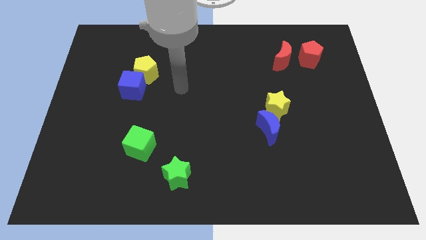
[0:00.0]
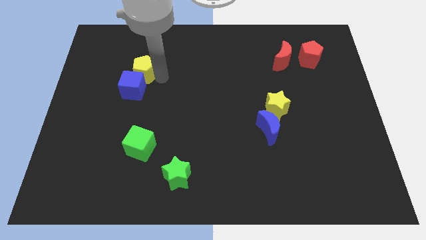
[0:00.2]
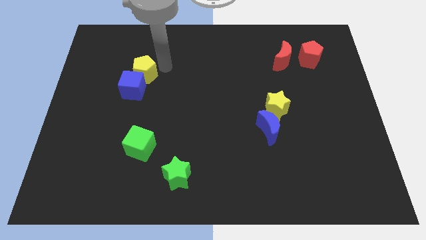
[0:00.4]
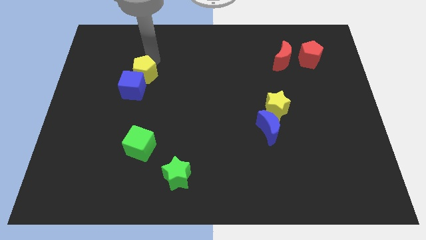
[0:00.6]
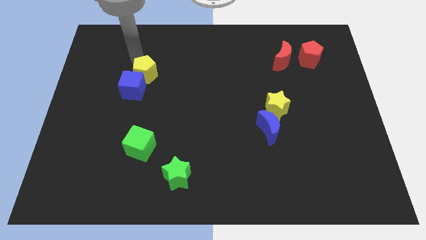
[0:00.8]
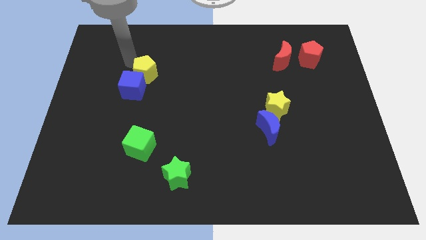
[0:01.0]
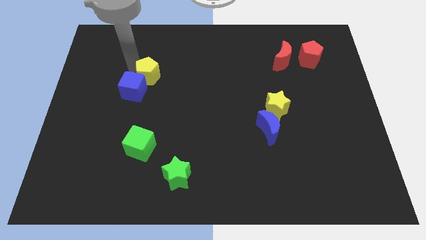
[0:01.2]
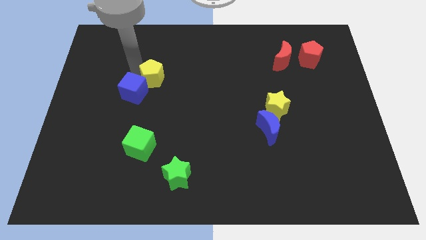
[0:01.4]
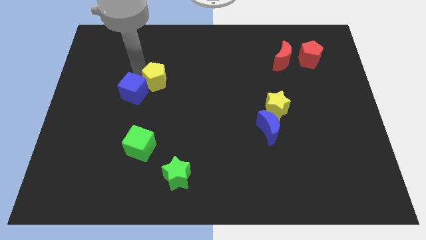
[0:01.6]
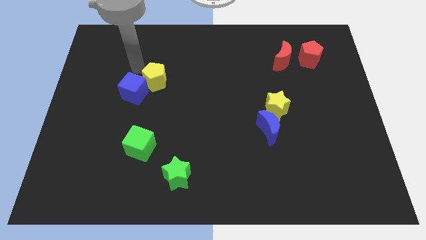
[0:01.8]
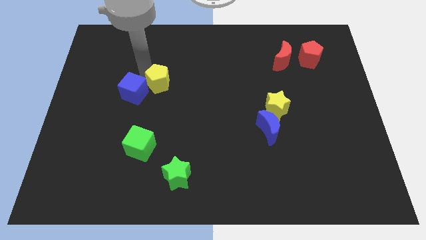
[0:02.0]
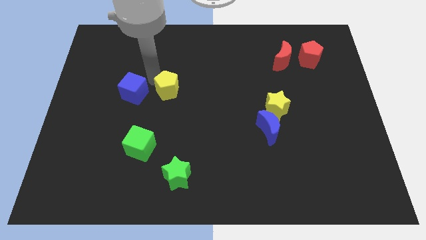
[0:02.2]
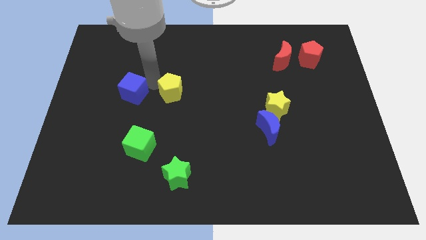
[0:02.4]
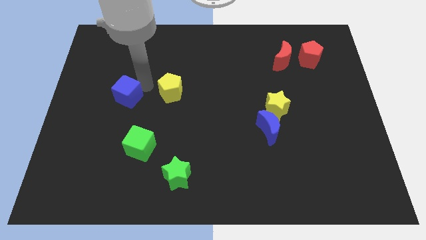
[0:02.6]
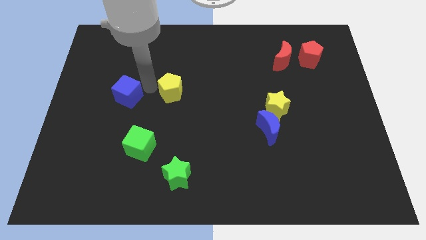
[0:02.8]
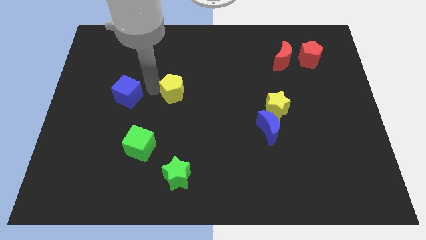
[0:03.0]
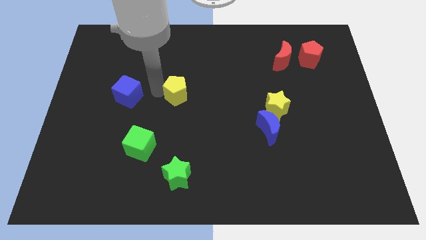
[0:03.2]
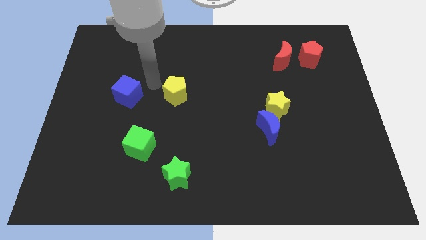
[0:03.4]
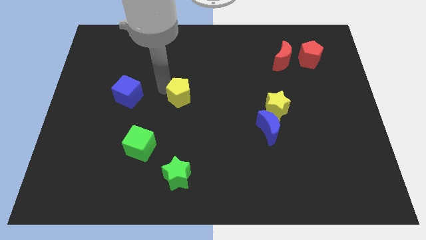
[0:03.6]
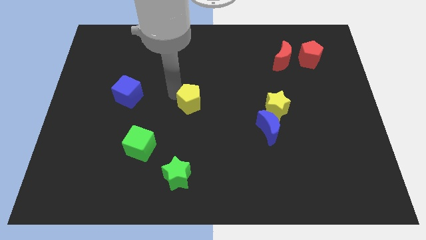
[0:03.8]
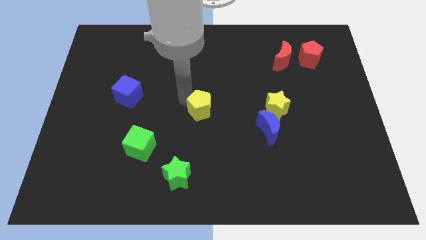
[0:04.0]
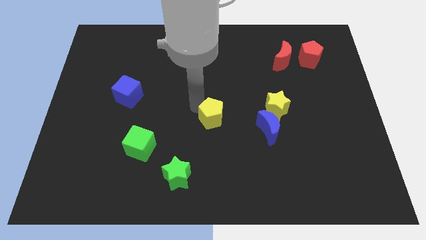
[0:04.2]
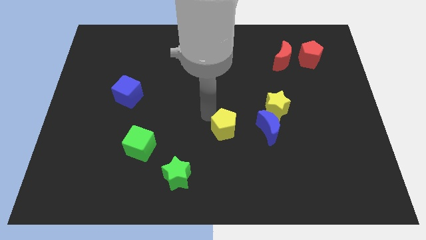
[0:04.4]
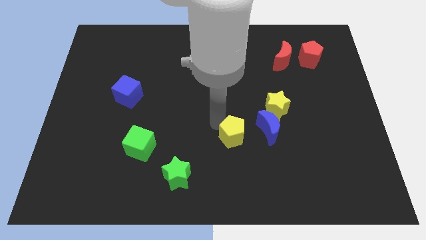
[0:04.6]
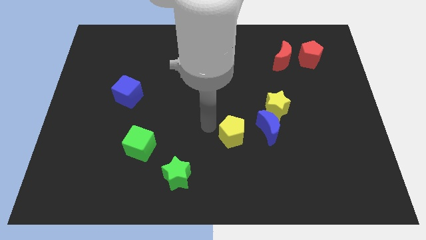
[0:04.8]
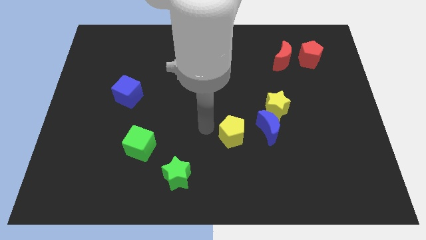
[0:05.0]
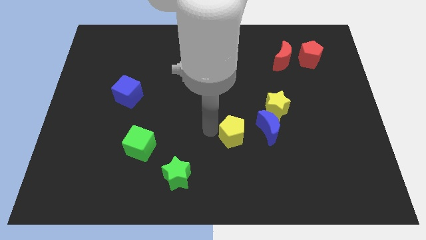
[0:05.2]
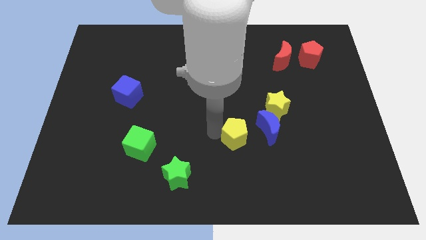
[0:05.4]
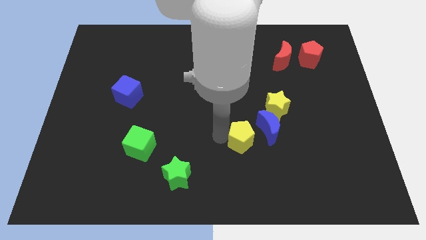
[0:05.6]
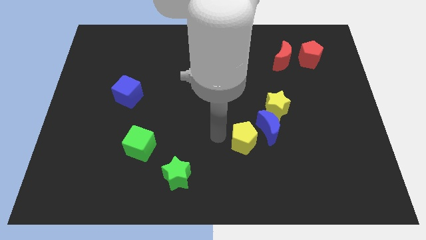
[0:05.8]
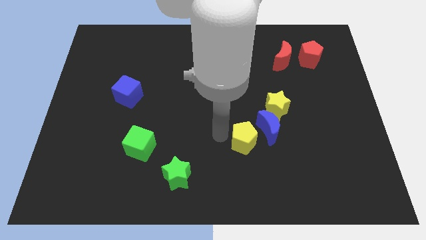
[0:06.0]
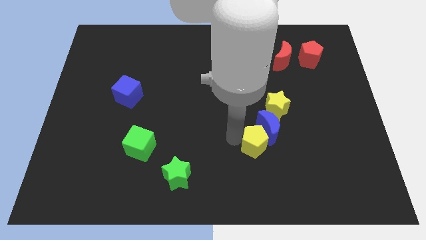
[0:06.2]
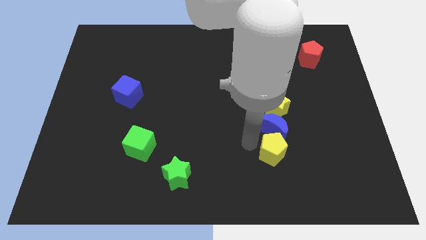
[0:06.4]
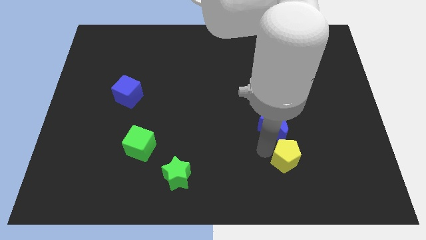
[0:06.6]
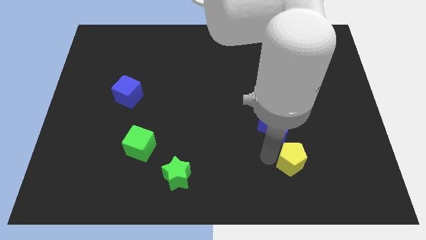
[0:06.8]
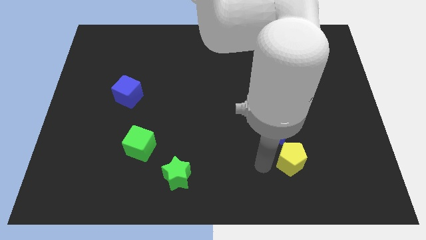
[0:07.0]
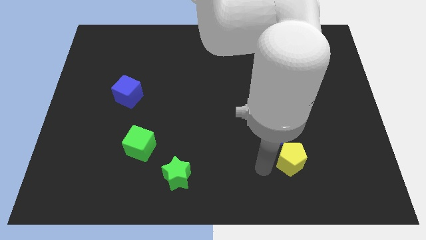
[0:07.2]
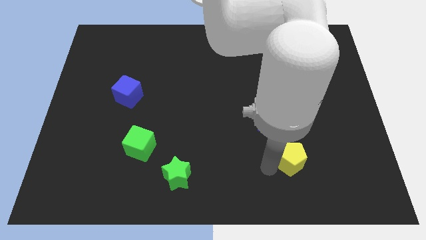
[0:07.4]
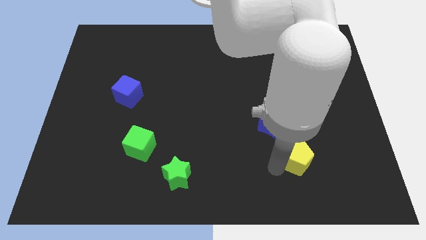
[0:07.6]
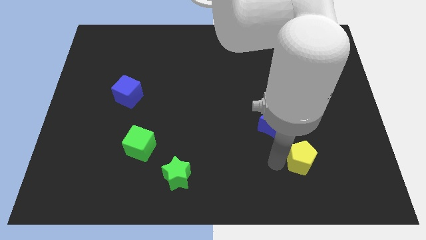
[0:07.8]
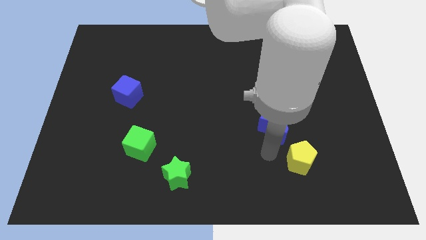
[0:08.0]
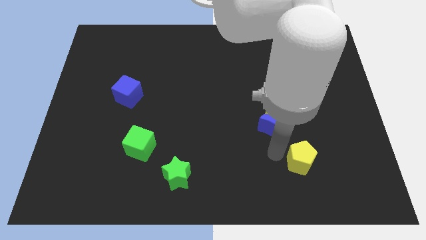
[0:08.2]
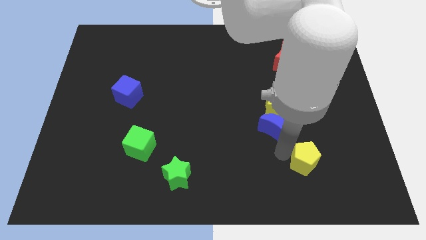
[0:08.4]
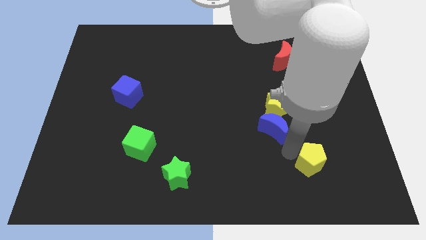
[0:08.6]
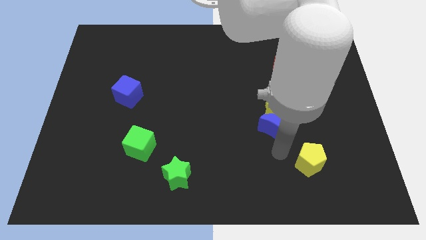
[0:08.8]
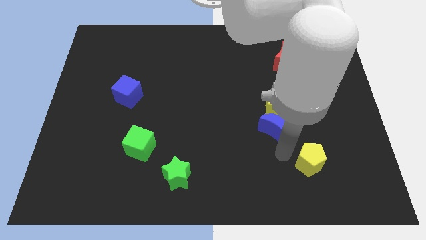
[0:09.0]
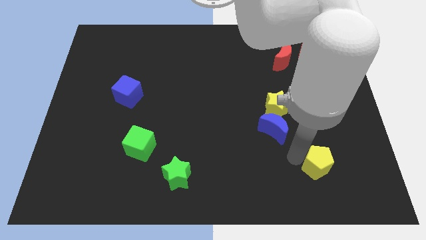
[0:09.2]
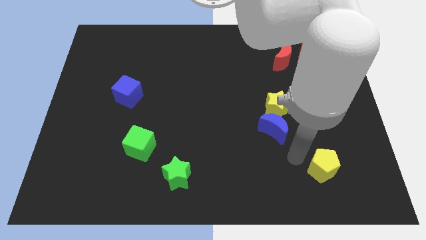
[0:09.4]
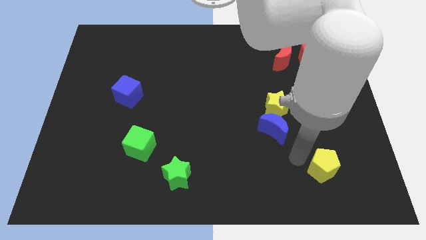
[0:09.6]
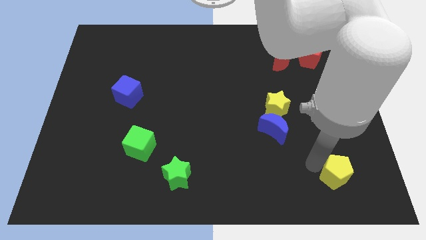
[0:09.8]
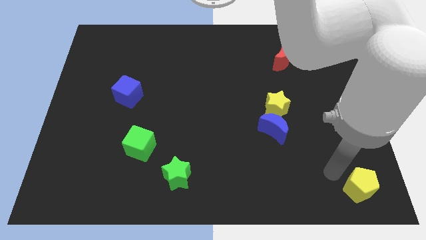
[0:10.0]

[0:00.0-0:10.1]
push the yellow pentagon to the bottom right

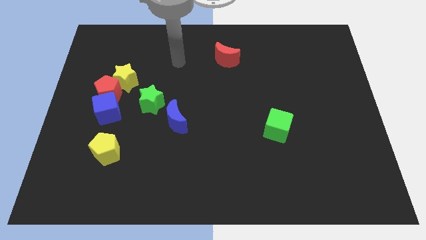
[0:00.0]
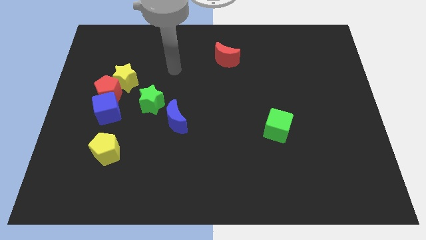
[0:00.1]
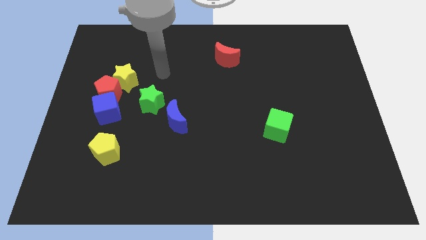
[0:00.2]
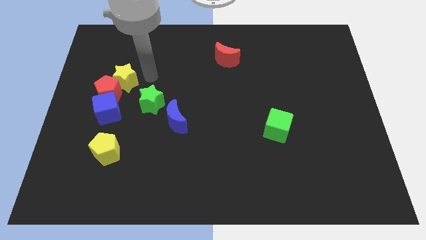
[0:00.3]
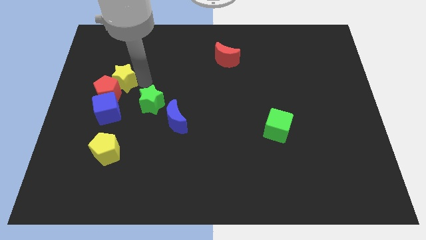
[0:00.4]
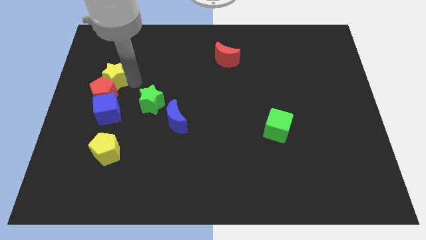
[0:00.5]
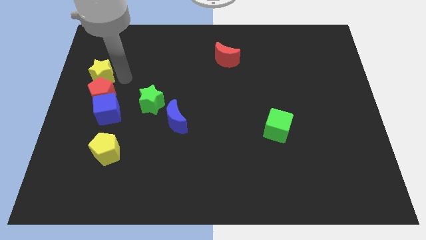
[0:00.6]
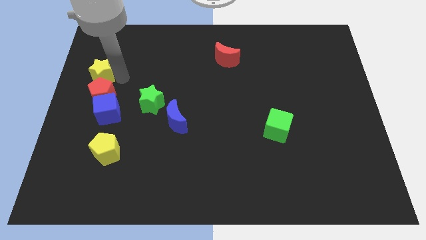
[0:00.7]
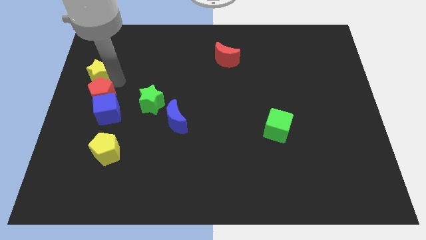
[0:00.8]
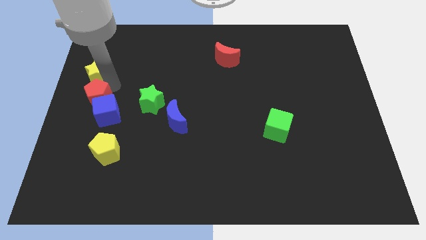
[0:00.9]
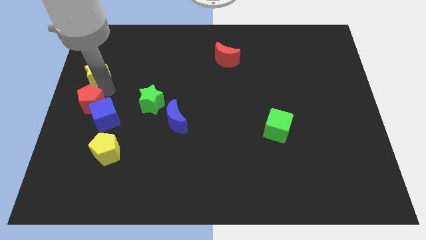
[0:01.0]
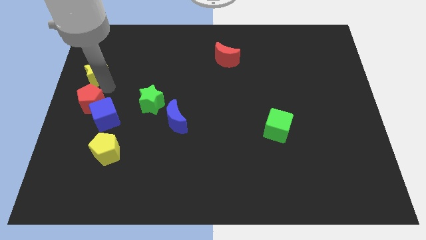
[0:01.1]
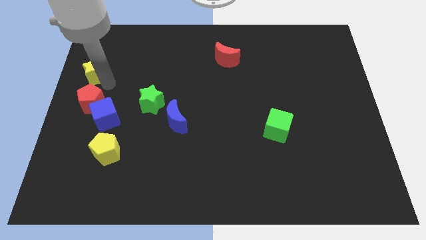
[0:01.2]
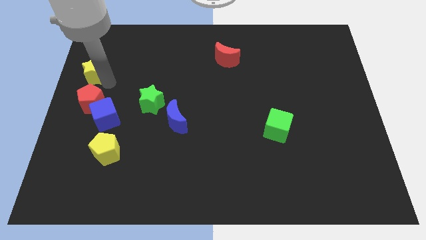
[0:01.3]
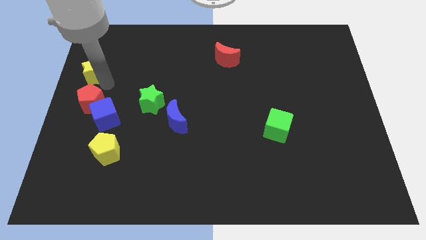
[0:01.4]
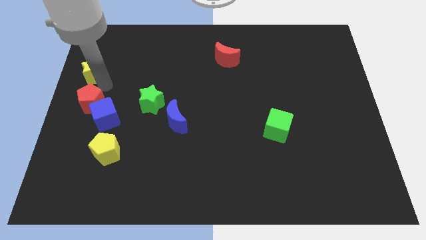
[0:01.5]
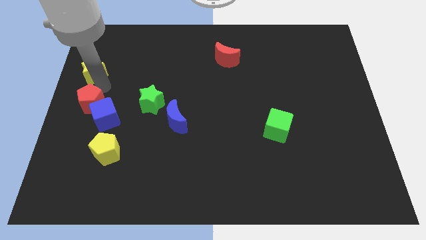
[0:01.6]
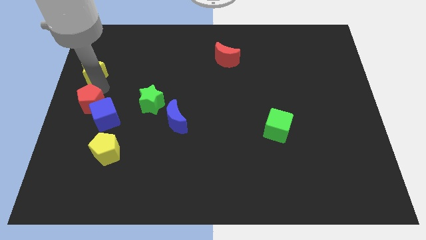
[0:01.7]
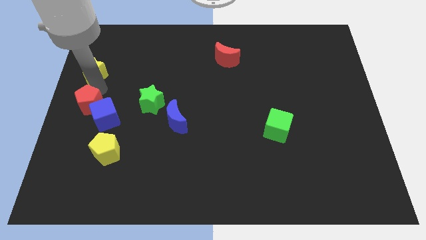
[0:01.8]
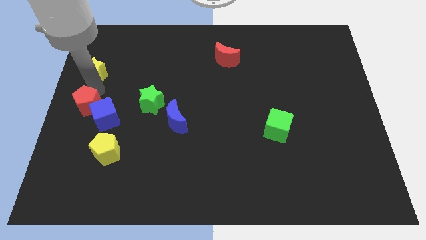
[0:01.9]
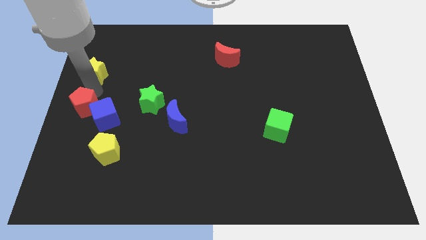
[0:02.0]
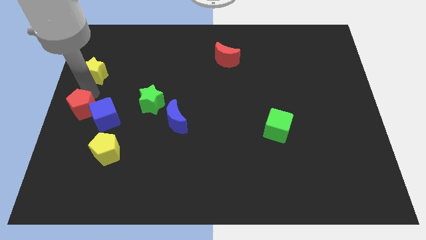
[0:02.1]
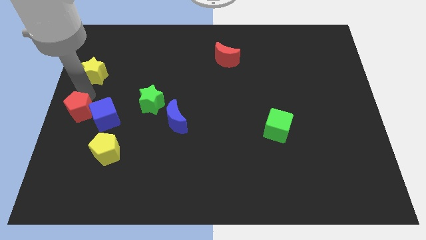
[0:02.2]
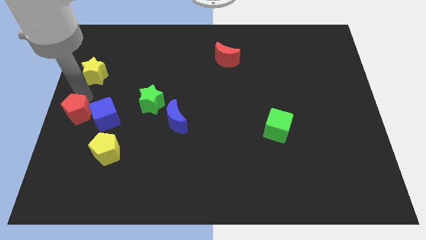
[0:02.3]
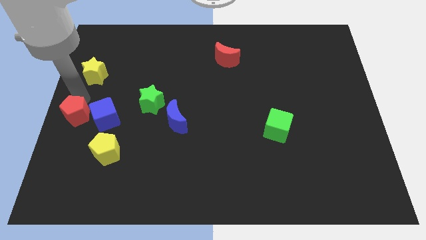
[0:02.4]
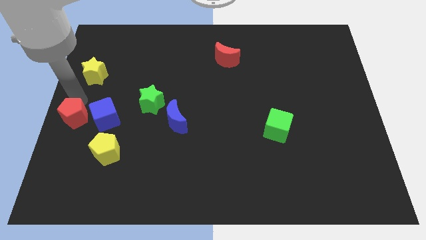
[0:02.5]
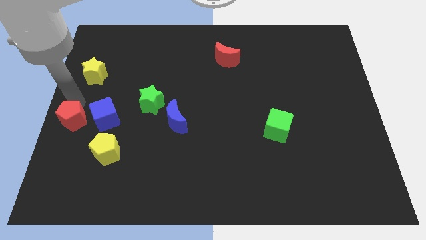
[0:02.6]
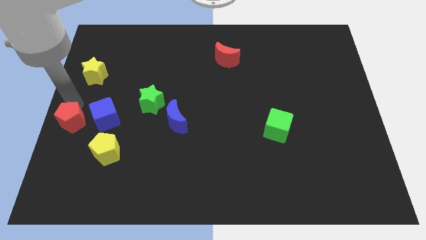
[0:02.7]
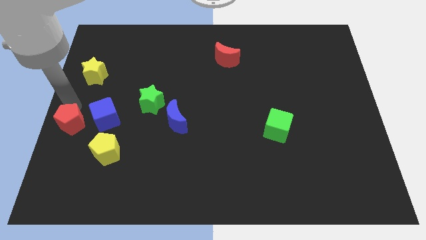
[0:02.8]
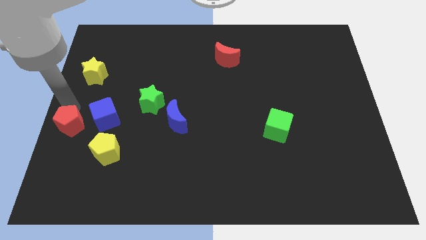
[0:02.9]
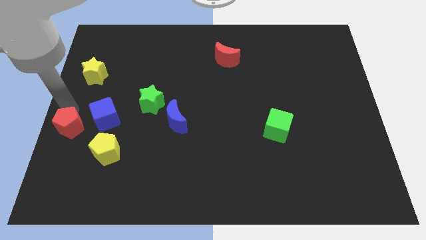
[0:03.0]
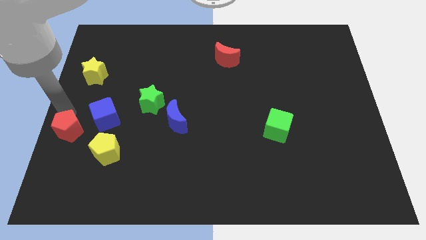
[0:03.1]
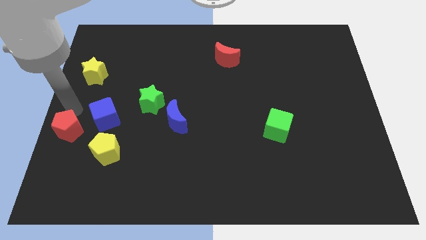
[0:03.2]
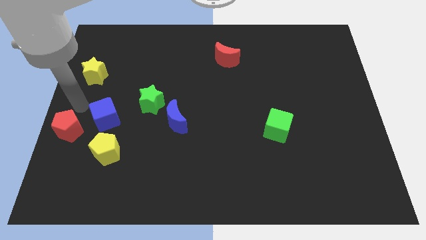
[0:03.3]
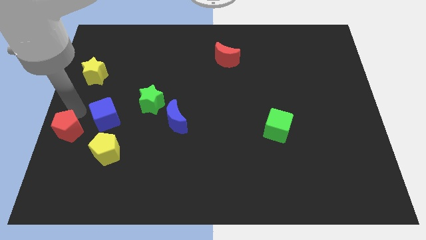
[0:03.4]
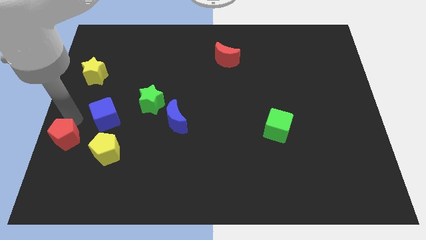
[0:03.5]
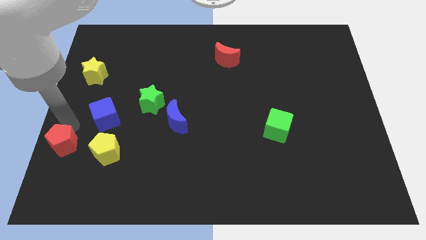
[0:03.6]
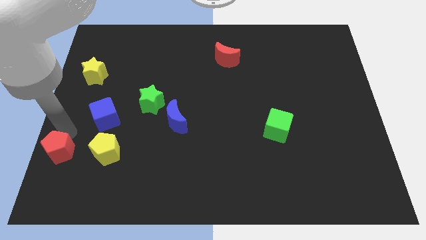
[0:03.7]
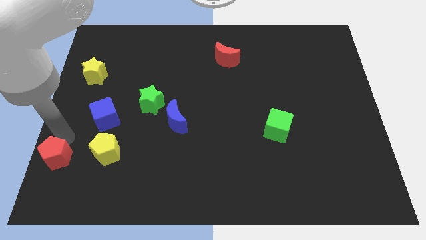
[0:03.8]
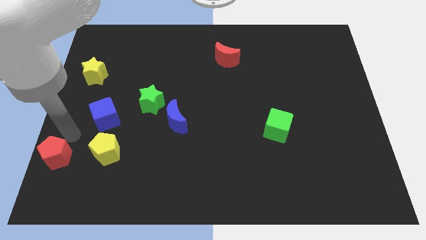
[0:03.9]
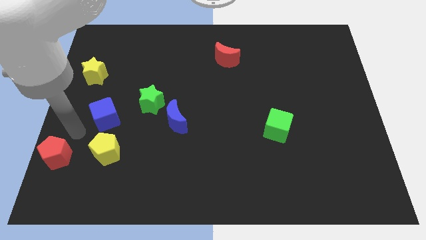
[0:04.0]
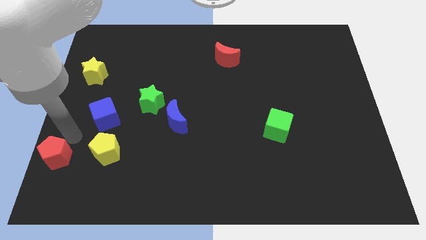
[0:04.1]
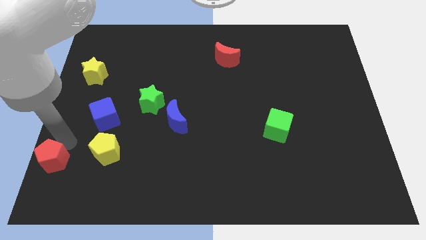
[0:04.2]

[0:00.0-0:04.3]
move the red pentagon to the bottom left corner
